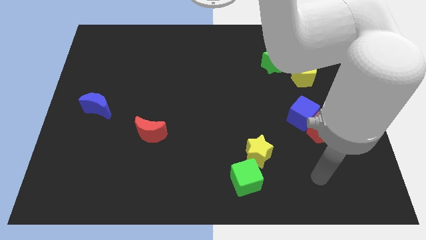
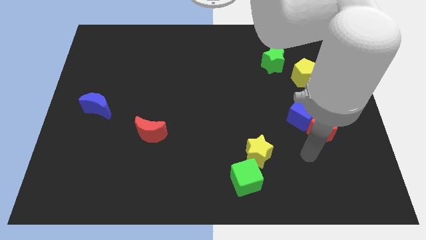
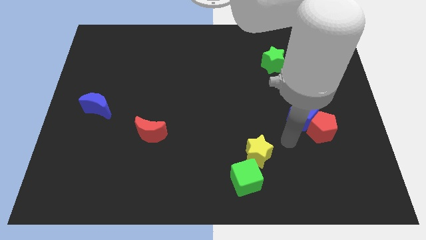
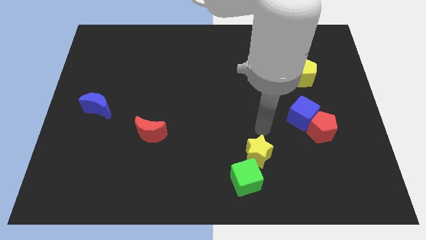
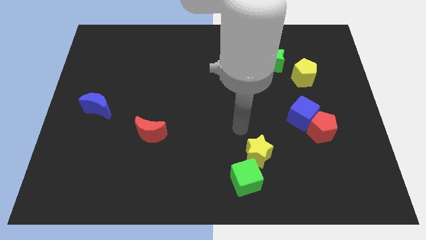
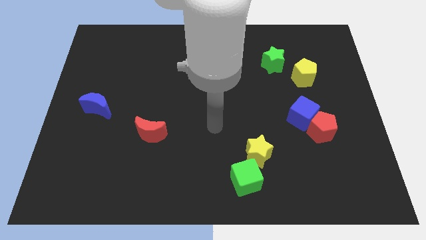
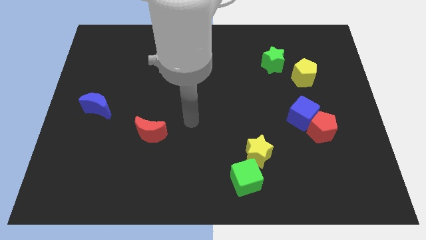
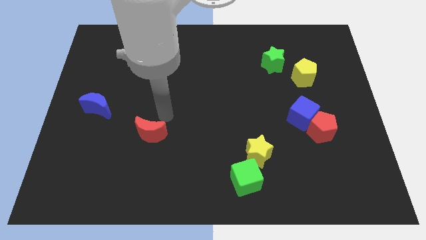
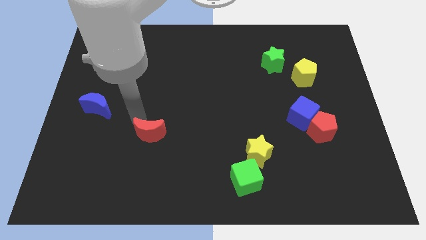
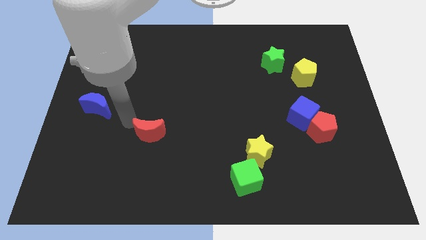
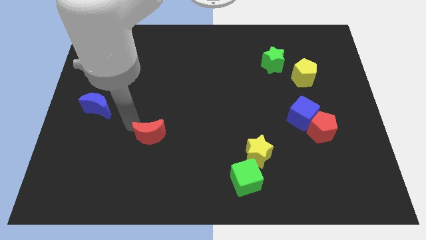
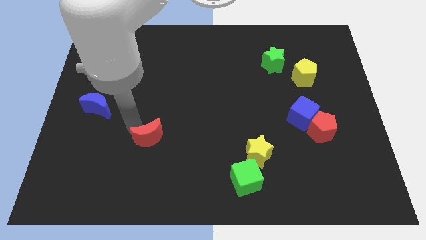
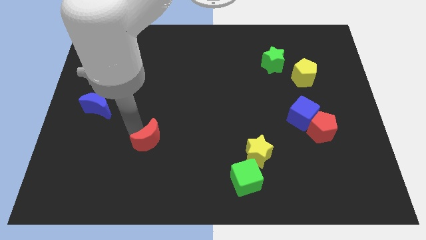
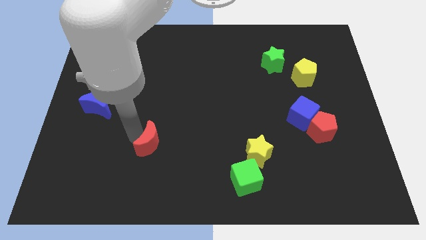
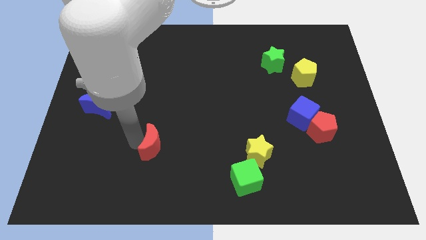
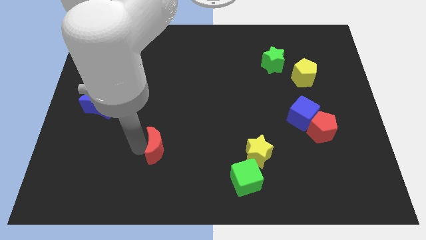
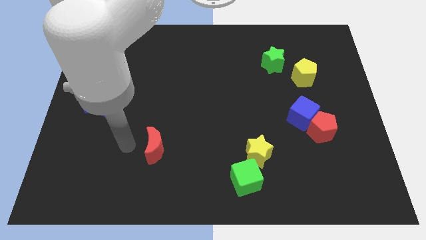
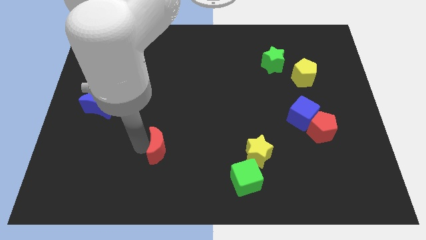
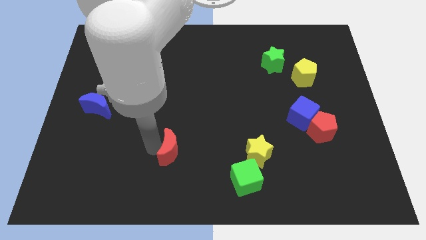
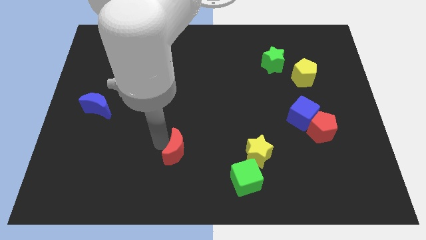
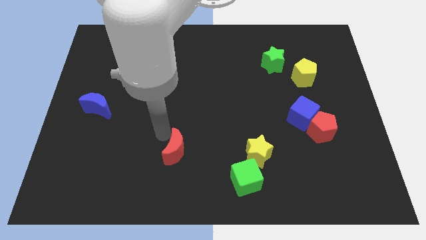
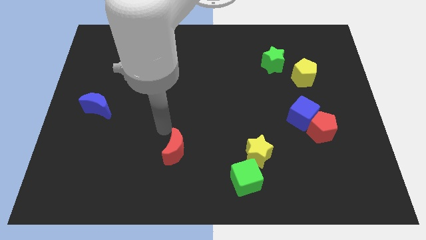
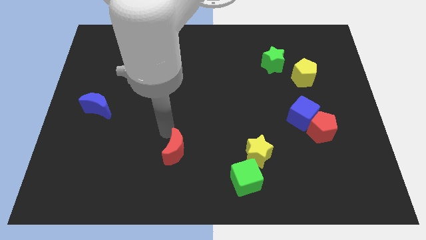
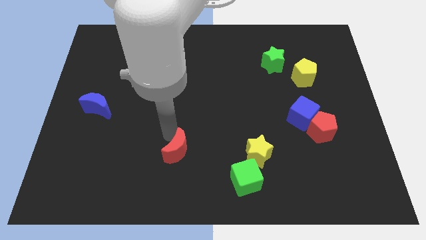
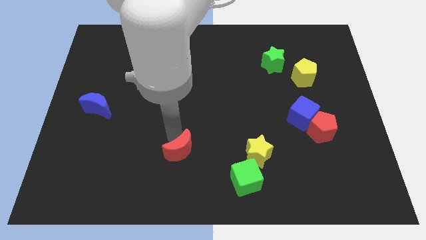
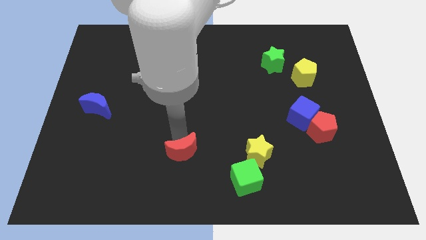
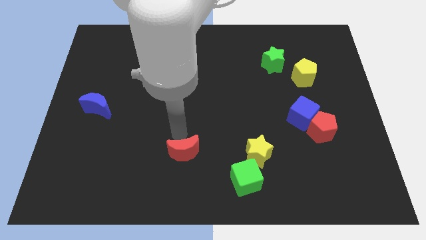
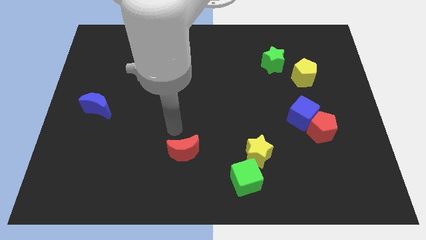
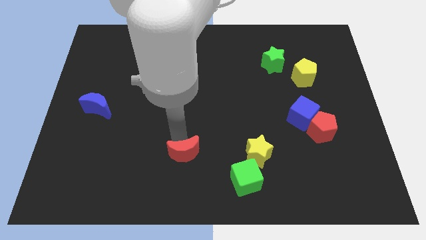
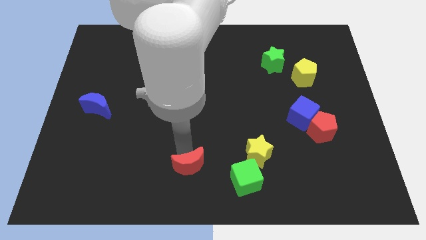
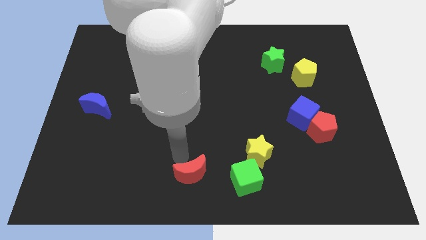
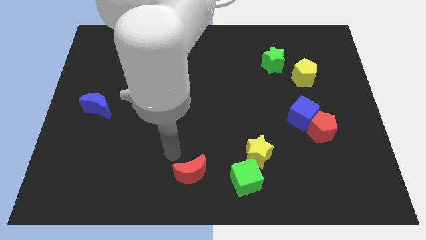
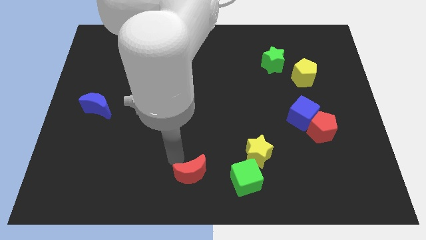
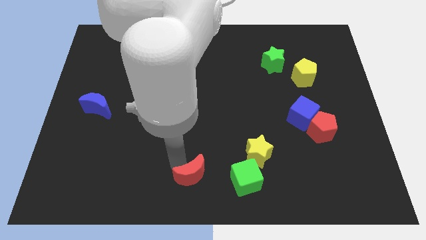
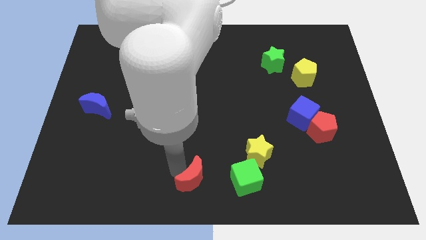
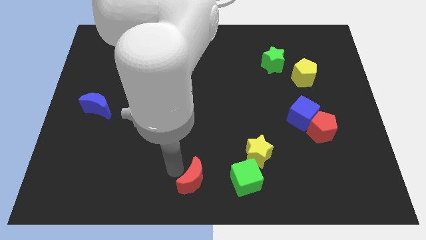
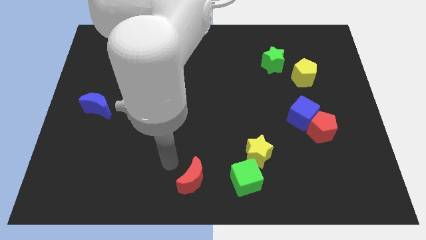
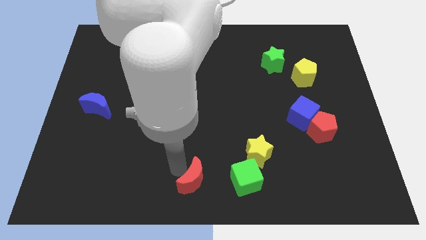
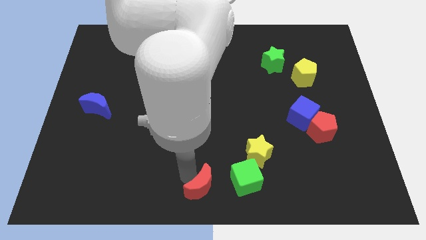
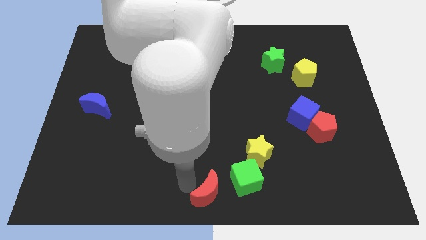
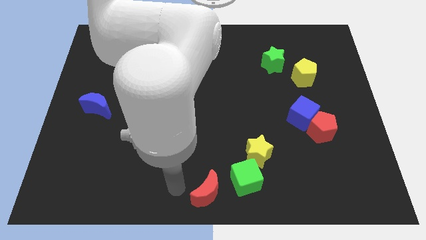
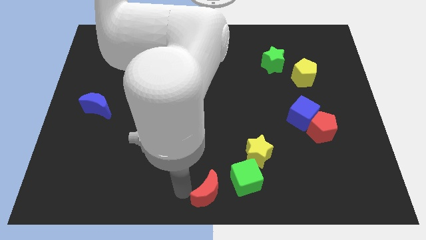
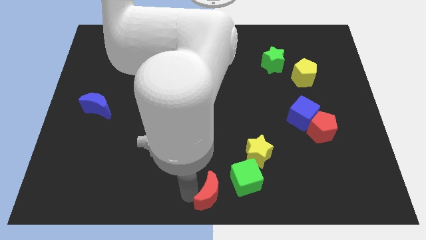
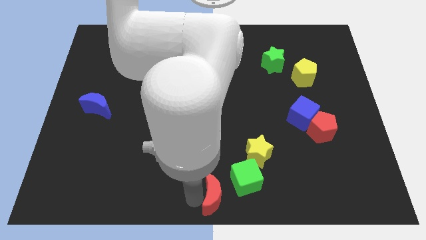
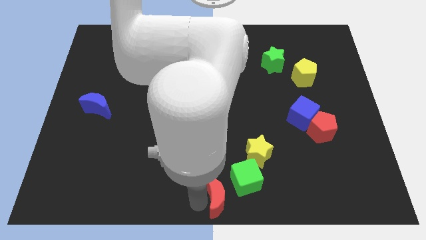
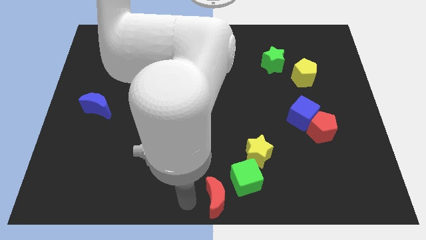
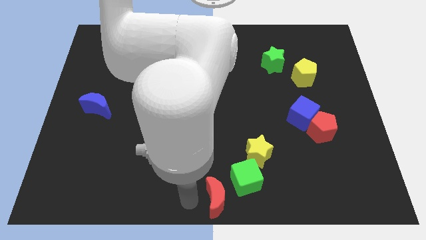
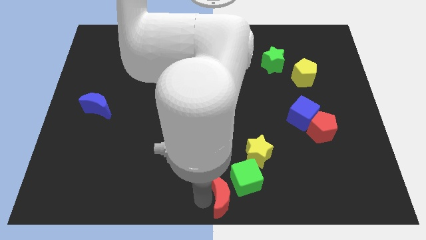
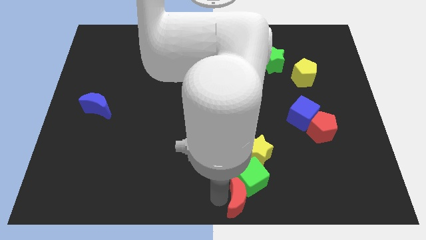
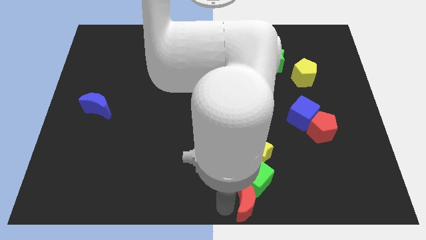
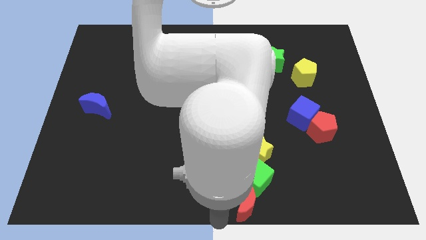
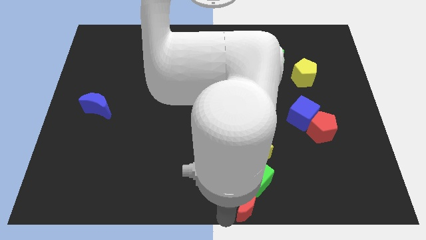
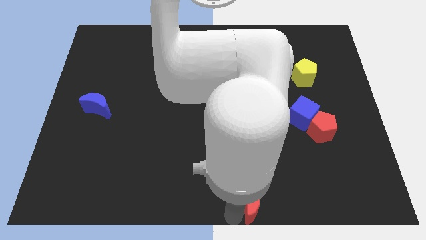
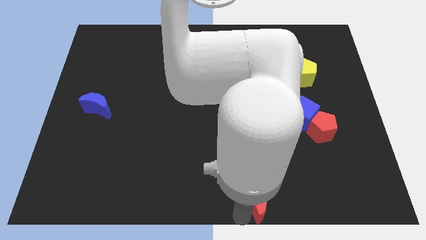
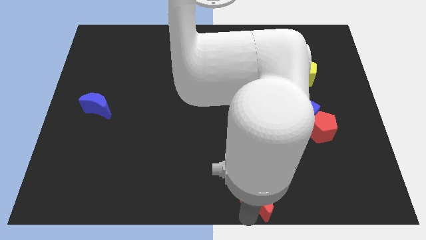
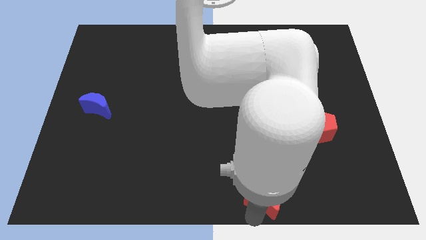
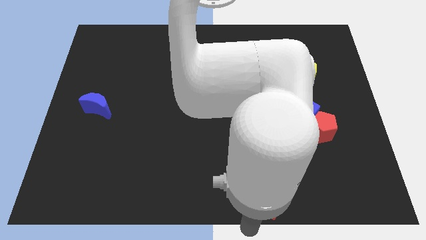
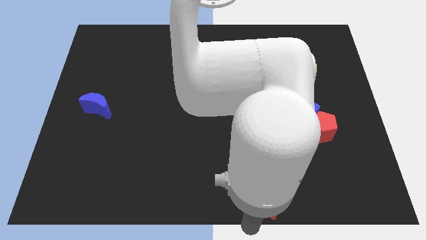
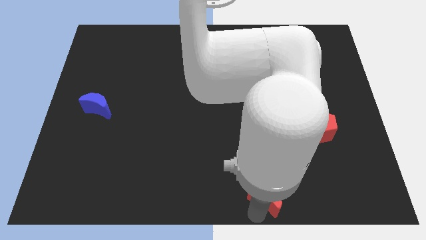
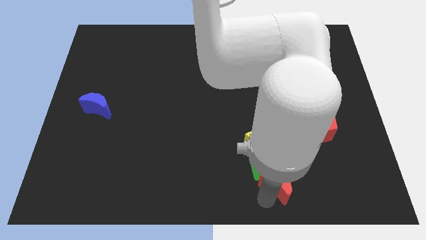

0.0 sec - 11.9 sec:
push the red moon diagonally down and to the right of the yellow star

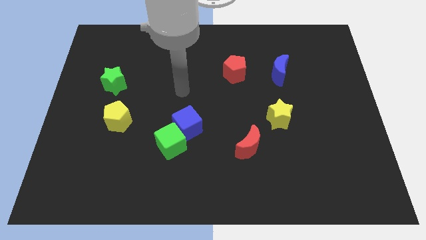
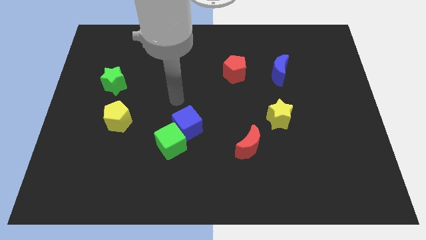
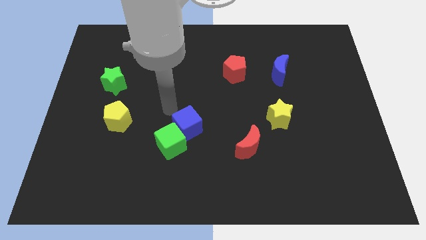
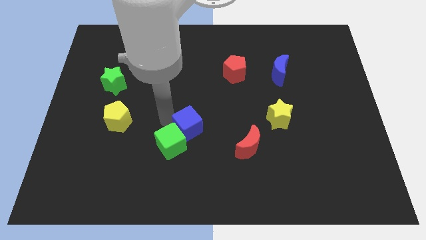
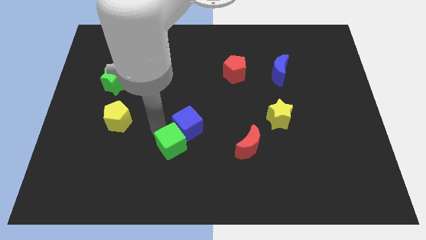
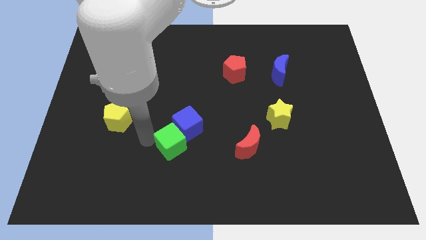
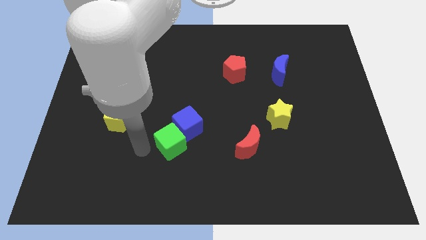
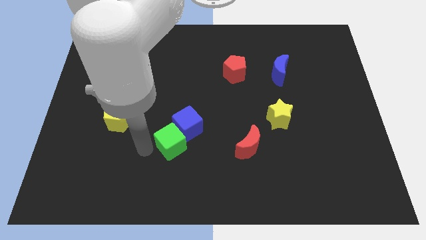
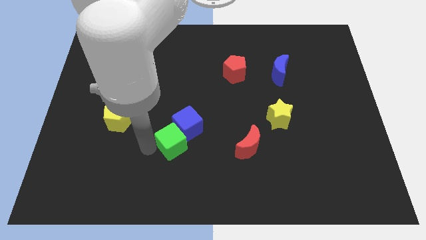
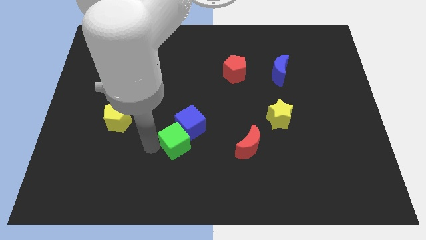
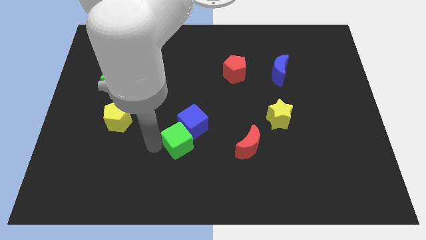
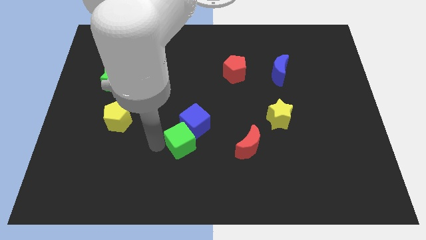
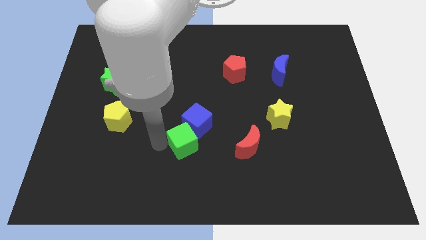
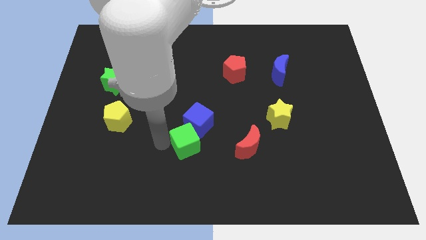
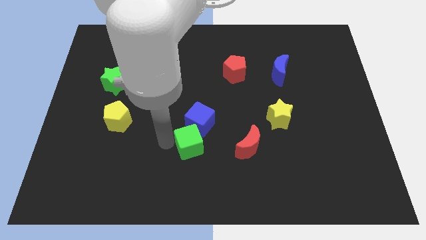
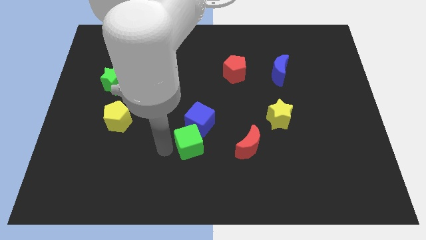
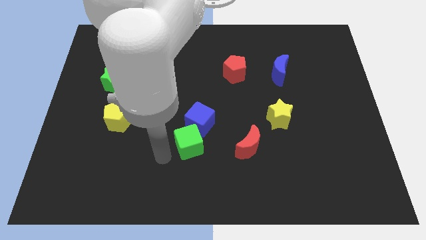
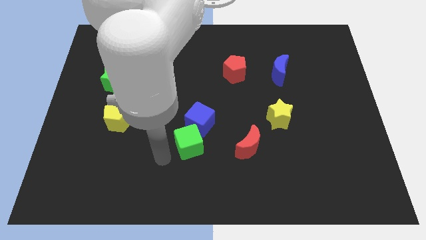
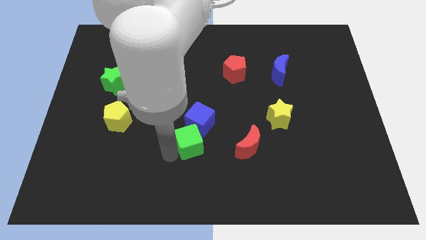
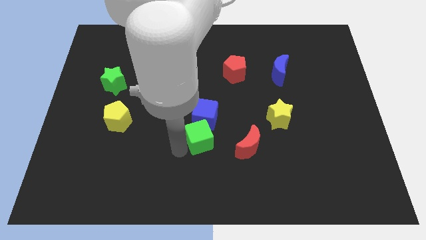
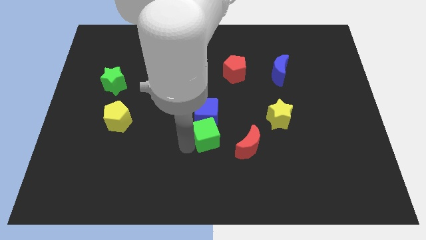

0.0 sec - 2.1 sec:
move the green cube diagonally up and to the left of the red moon
